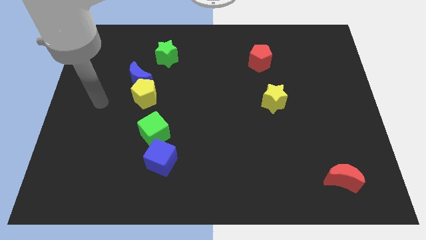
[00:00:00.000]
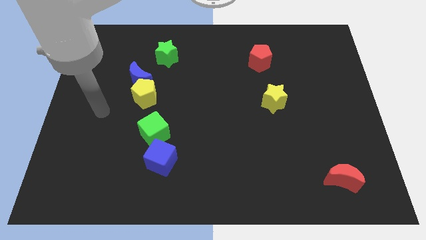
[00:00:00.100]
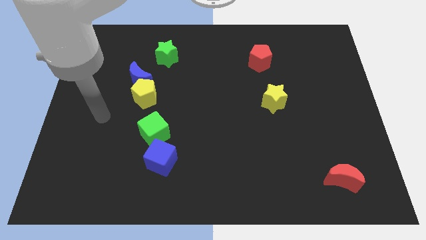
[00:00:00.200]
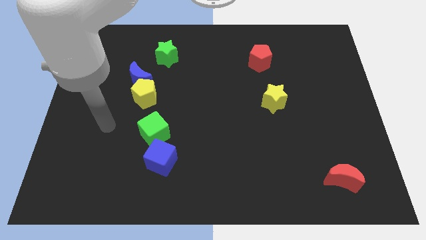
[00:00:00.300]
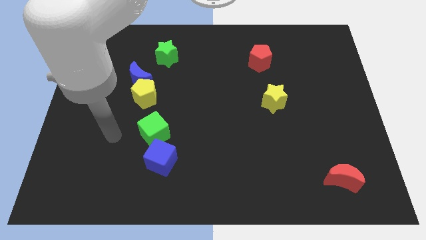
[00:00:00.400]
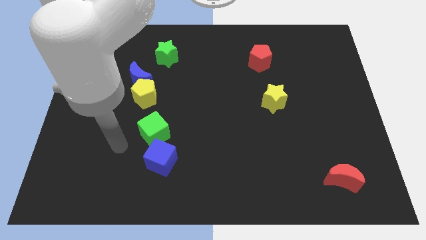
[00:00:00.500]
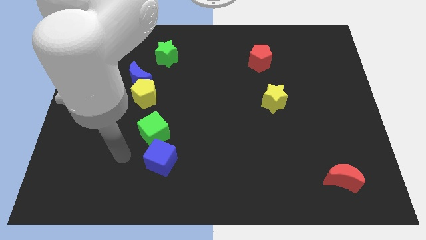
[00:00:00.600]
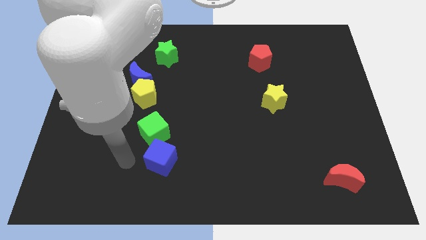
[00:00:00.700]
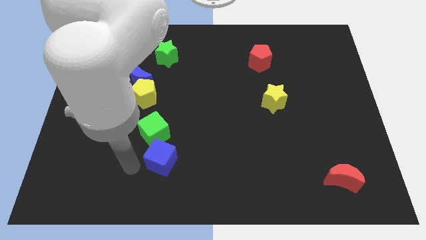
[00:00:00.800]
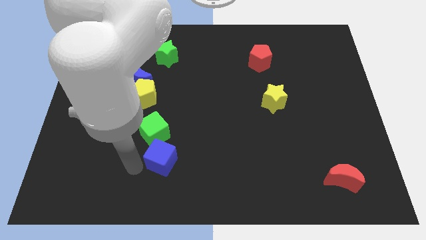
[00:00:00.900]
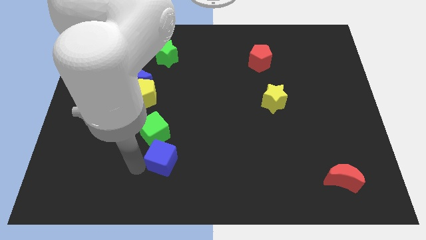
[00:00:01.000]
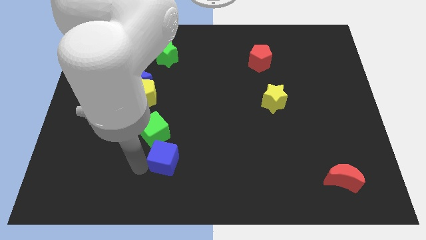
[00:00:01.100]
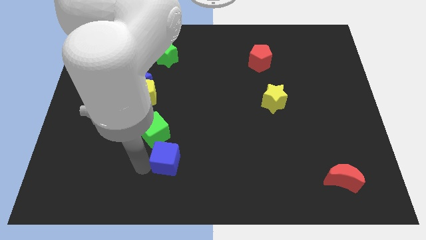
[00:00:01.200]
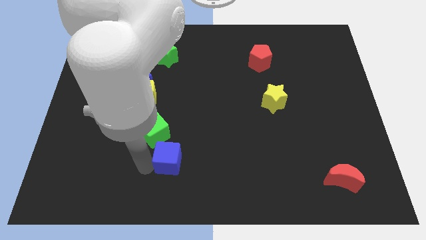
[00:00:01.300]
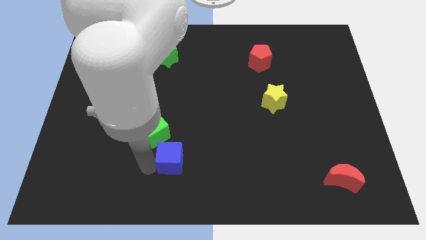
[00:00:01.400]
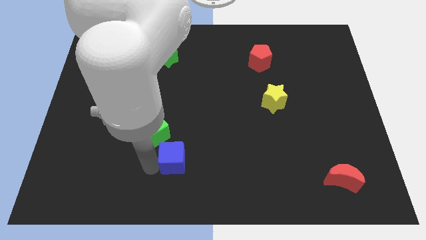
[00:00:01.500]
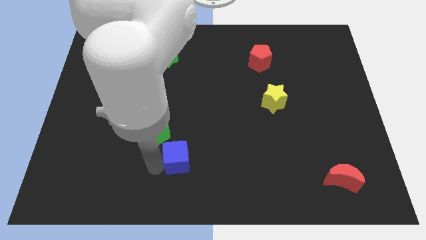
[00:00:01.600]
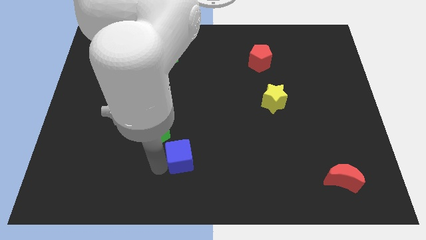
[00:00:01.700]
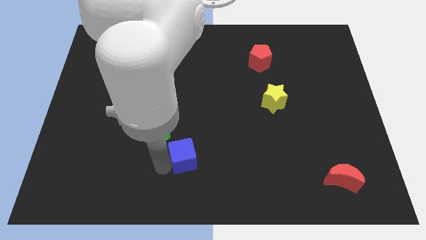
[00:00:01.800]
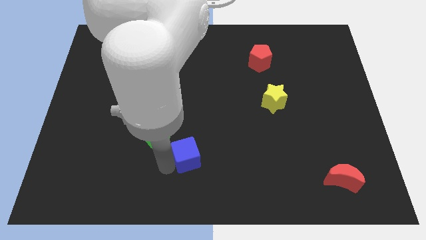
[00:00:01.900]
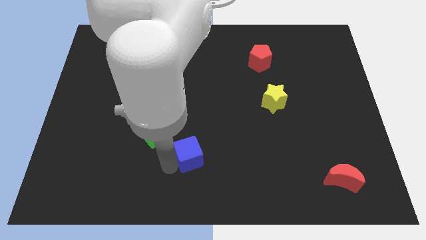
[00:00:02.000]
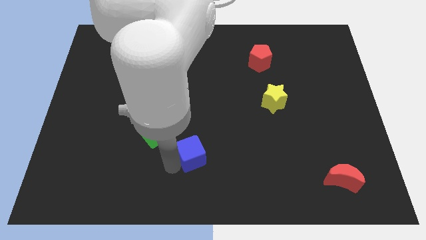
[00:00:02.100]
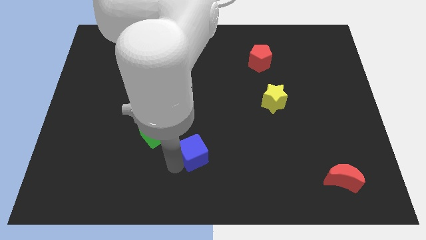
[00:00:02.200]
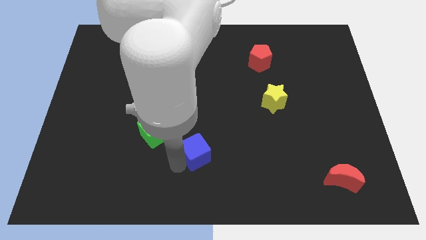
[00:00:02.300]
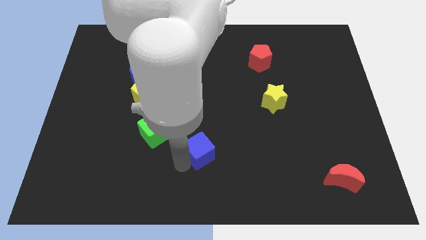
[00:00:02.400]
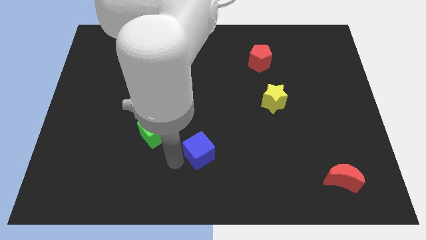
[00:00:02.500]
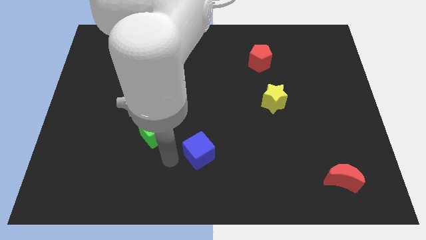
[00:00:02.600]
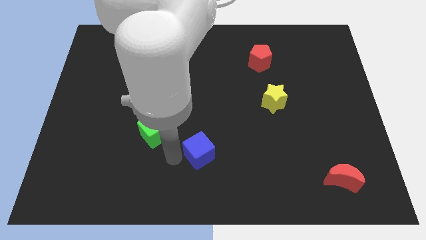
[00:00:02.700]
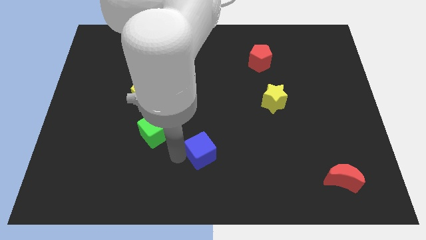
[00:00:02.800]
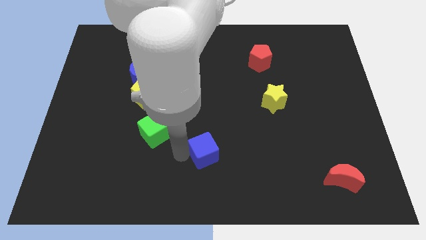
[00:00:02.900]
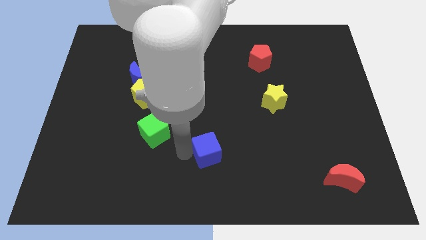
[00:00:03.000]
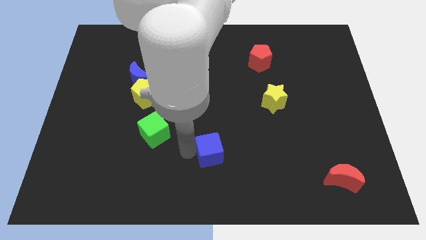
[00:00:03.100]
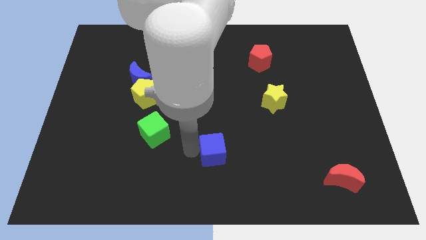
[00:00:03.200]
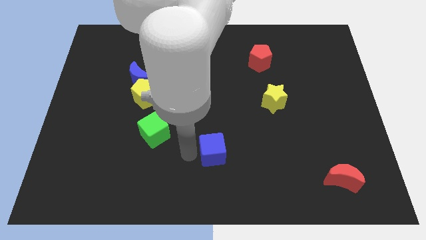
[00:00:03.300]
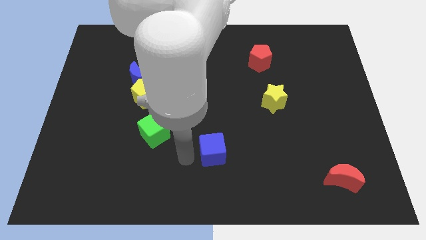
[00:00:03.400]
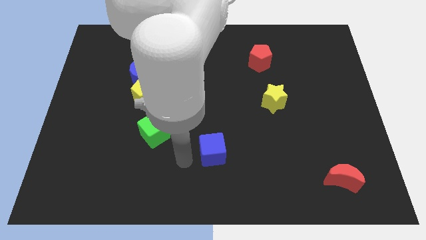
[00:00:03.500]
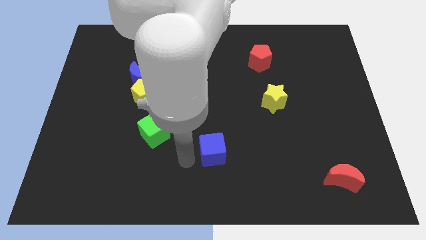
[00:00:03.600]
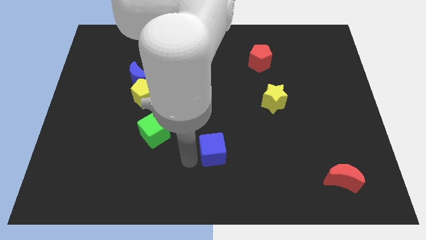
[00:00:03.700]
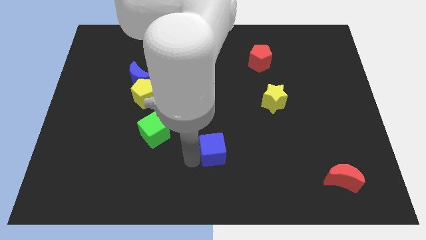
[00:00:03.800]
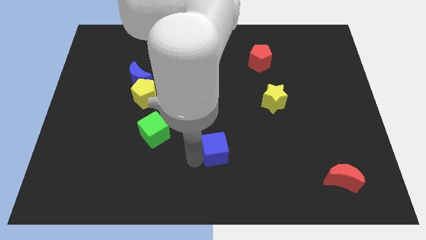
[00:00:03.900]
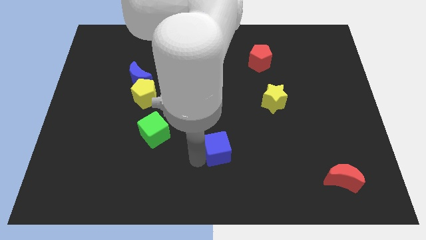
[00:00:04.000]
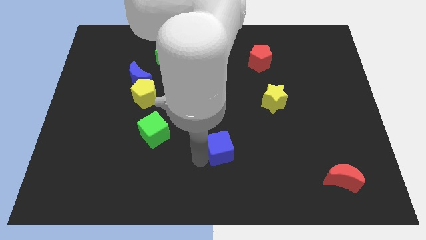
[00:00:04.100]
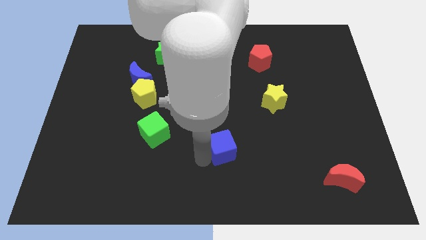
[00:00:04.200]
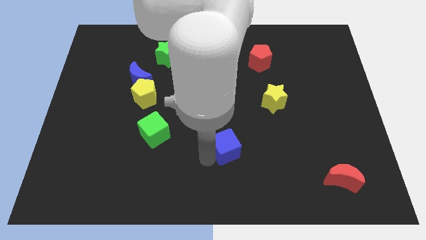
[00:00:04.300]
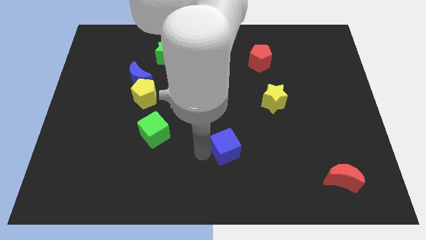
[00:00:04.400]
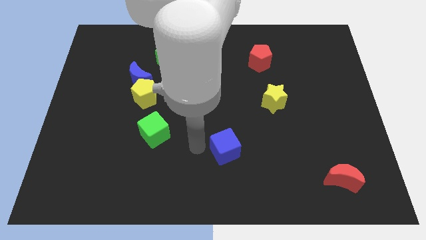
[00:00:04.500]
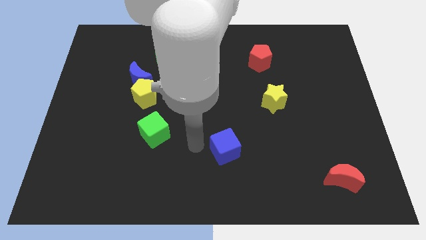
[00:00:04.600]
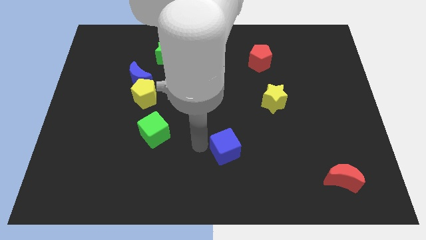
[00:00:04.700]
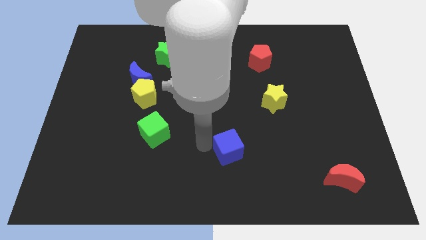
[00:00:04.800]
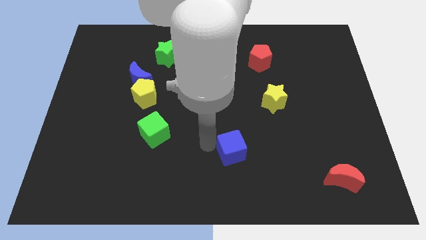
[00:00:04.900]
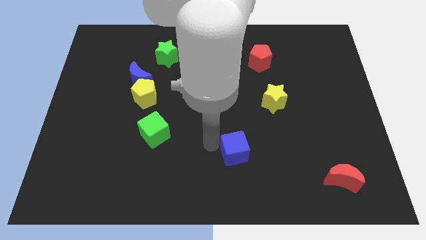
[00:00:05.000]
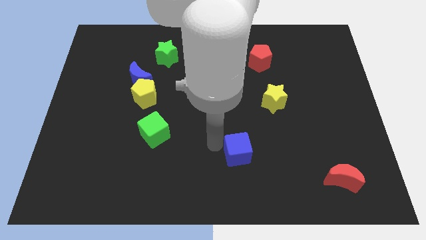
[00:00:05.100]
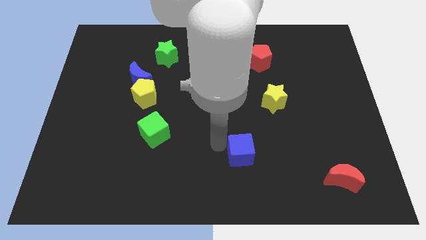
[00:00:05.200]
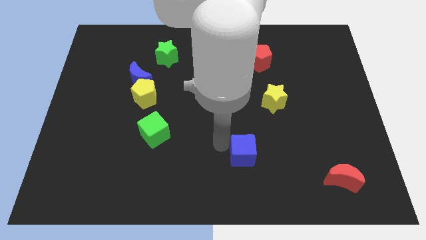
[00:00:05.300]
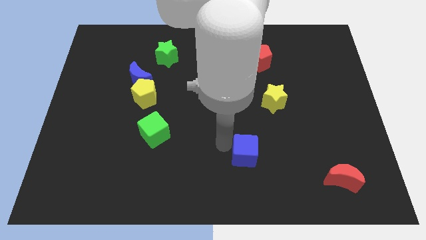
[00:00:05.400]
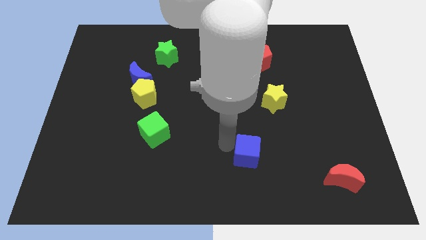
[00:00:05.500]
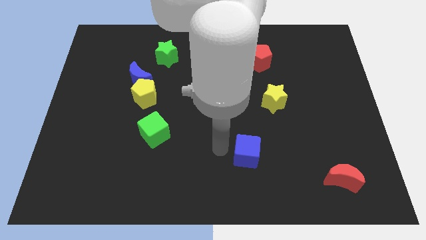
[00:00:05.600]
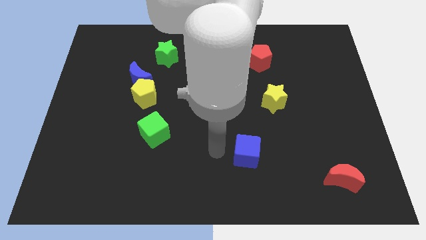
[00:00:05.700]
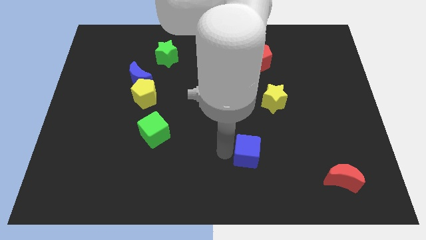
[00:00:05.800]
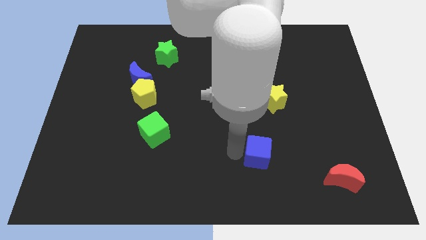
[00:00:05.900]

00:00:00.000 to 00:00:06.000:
push the blue cube to the right

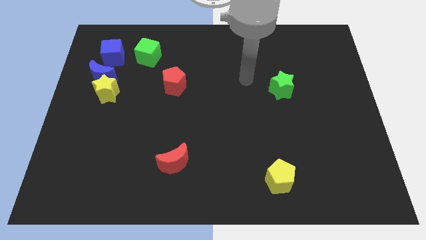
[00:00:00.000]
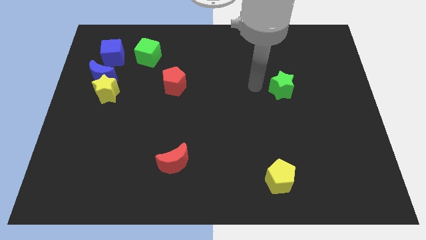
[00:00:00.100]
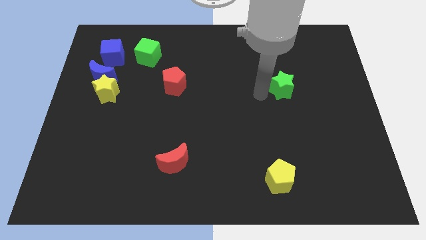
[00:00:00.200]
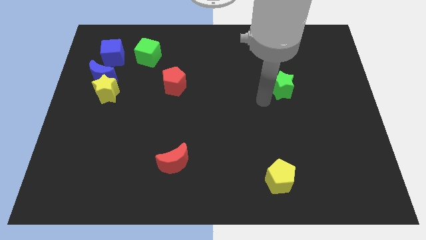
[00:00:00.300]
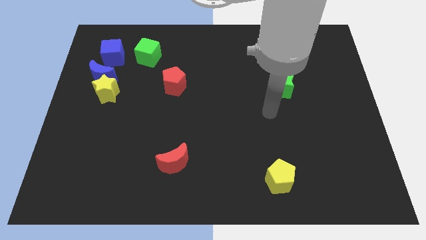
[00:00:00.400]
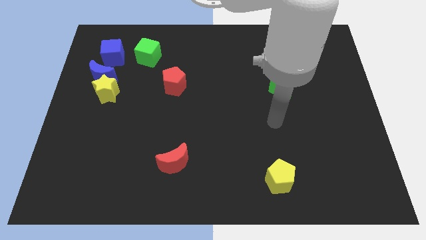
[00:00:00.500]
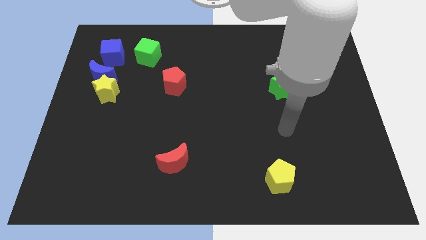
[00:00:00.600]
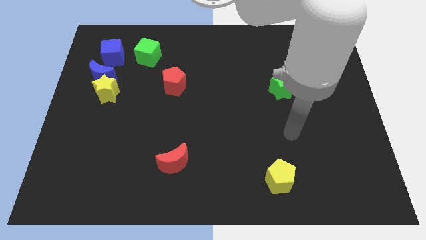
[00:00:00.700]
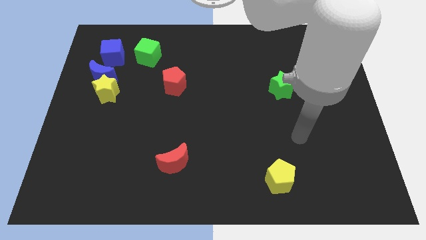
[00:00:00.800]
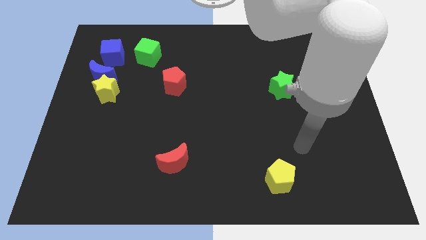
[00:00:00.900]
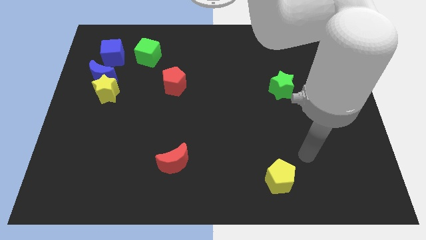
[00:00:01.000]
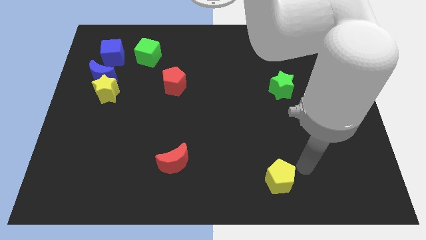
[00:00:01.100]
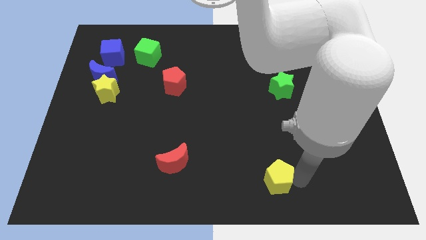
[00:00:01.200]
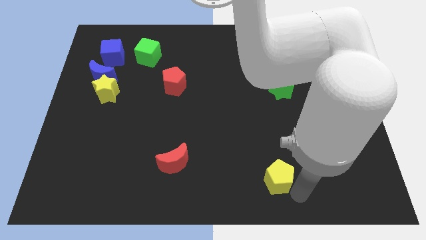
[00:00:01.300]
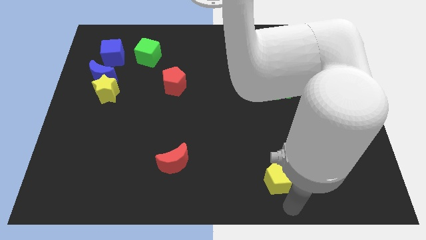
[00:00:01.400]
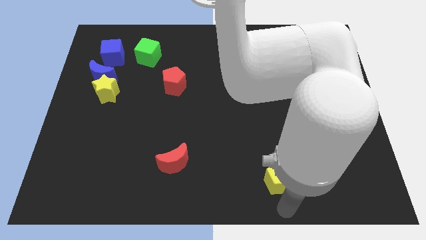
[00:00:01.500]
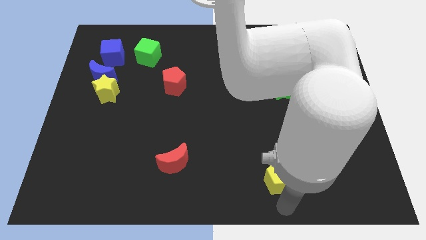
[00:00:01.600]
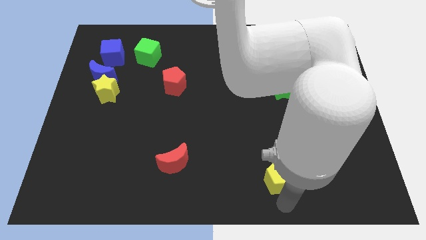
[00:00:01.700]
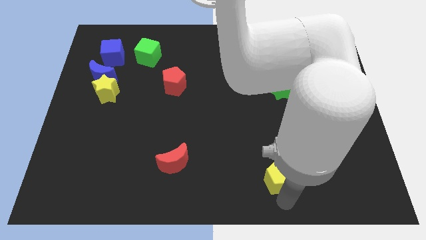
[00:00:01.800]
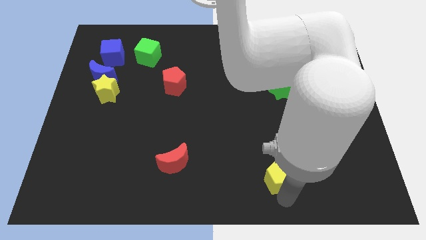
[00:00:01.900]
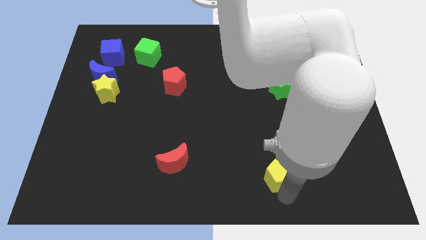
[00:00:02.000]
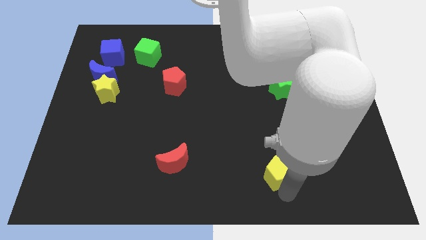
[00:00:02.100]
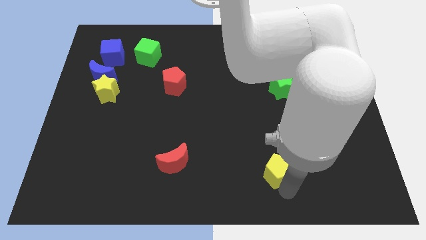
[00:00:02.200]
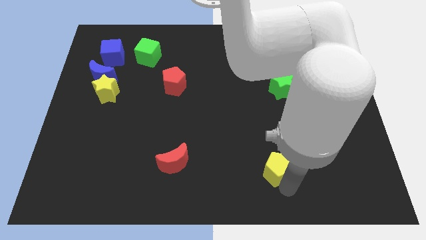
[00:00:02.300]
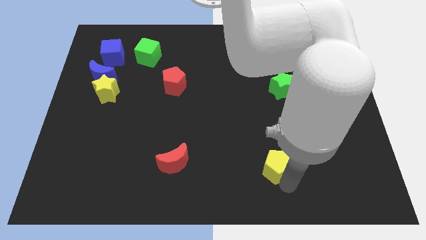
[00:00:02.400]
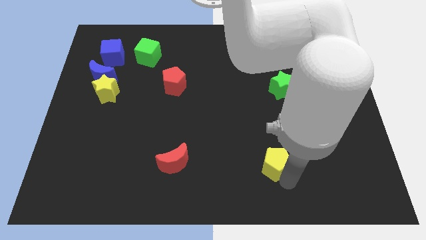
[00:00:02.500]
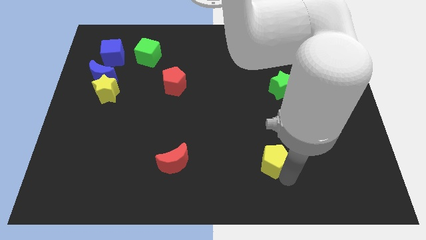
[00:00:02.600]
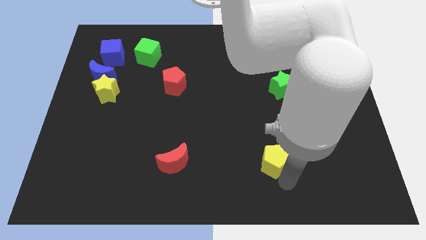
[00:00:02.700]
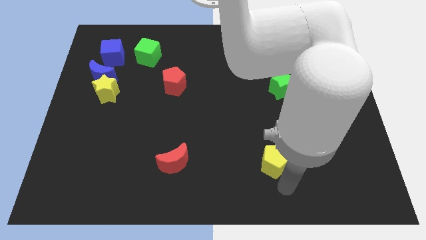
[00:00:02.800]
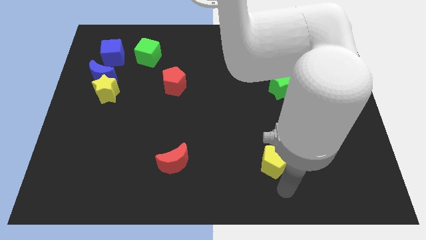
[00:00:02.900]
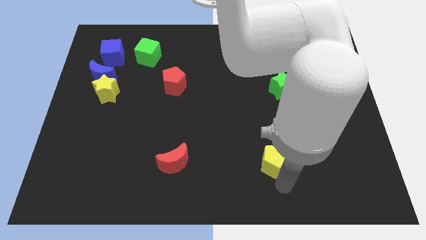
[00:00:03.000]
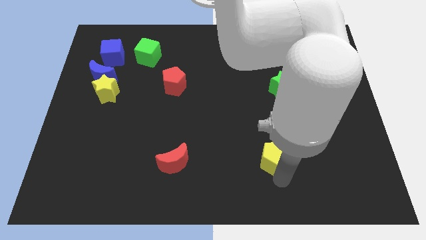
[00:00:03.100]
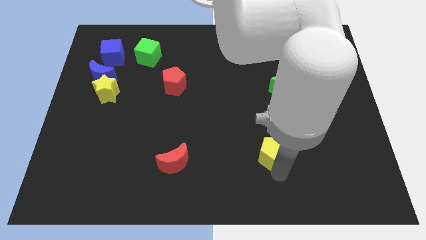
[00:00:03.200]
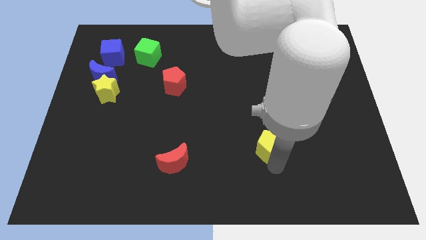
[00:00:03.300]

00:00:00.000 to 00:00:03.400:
push the yellow pentagon a little bit up
